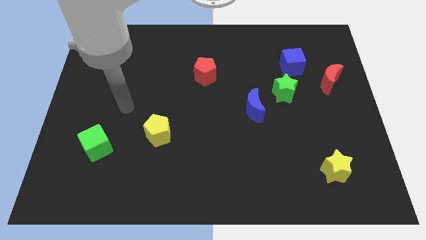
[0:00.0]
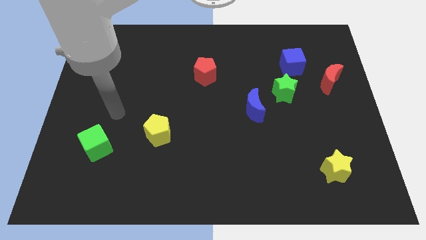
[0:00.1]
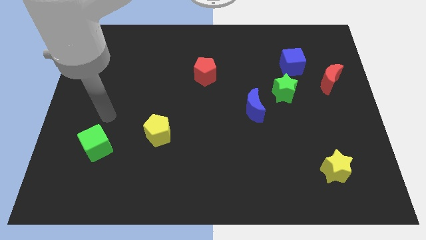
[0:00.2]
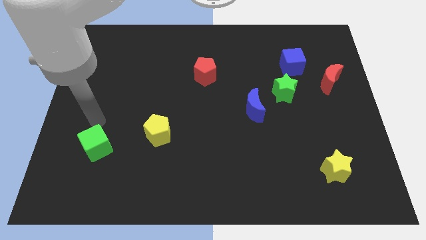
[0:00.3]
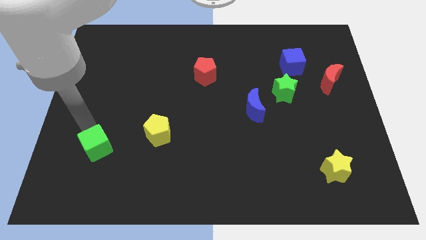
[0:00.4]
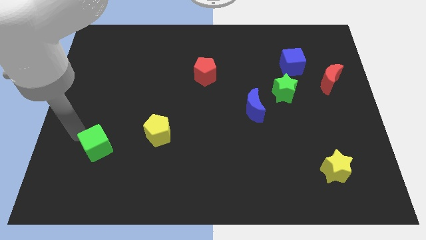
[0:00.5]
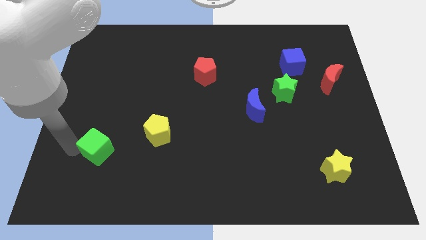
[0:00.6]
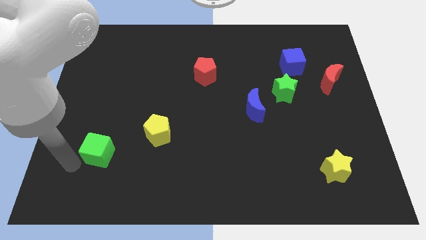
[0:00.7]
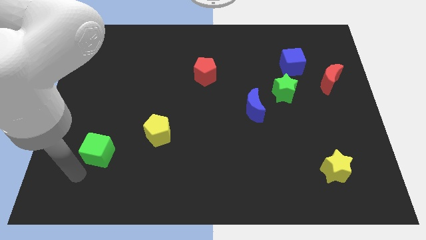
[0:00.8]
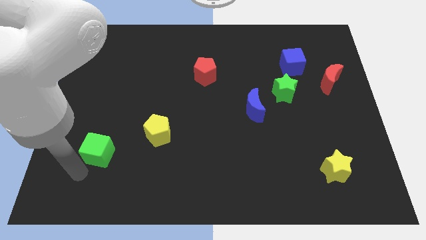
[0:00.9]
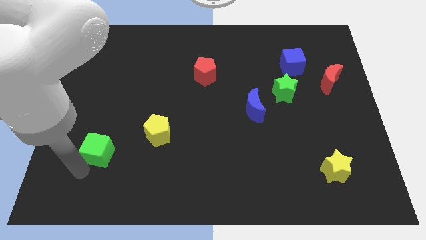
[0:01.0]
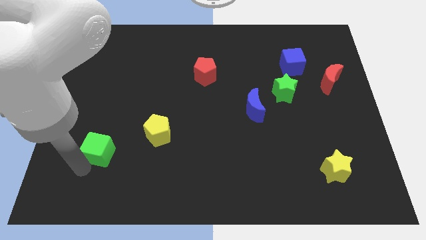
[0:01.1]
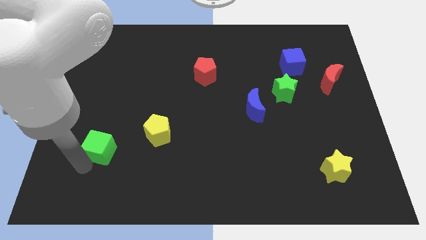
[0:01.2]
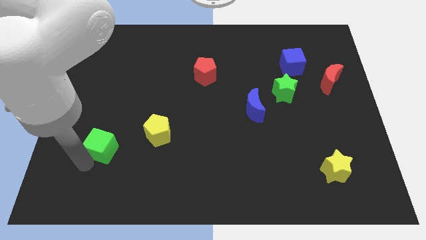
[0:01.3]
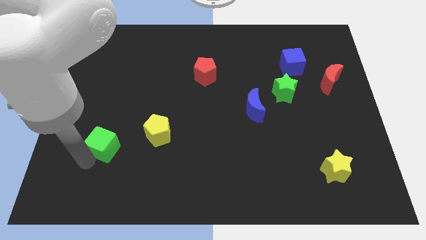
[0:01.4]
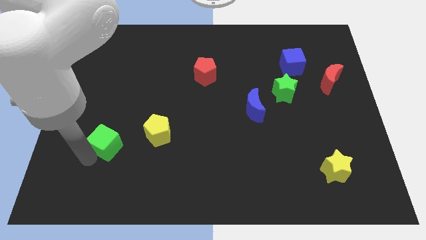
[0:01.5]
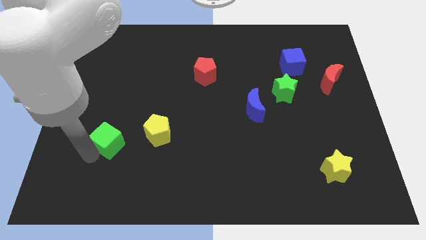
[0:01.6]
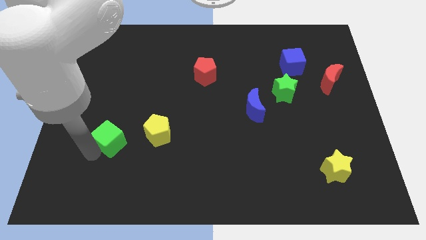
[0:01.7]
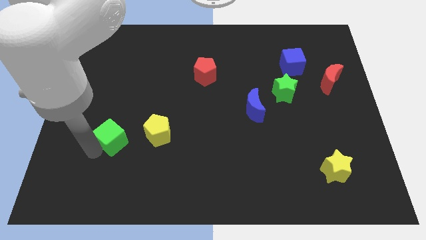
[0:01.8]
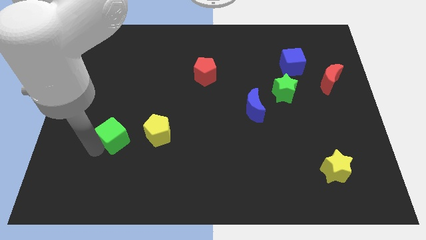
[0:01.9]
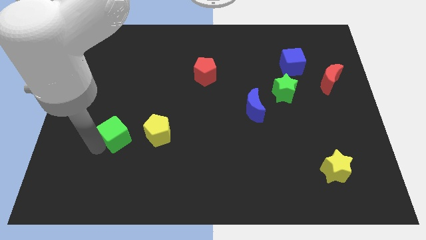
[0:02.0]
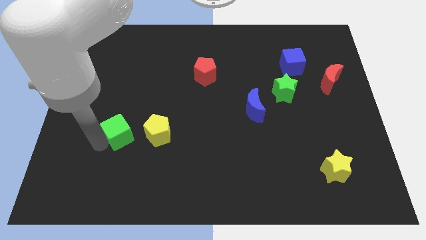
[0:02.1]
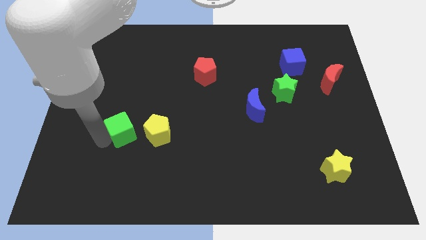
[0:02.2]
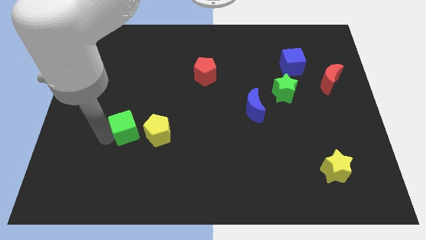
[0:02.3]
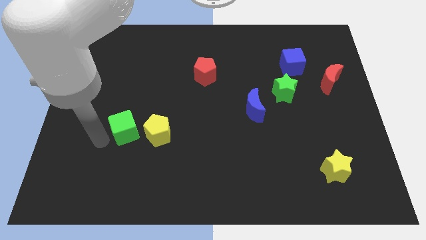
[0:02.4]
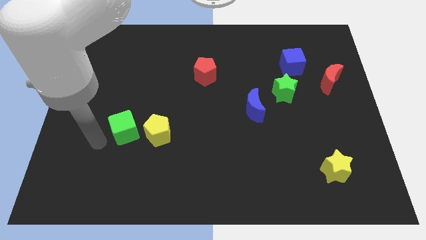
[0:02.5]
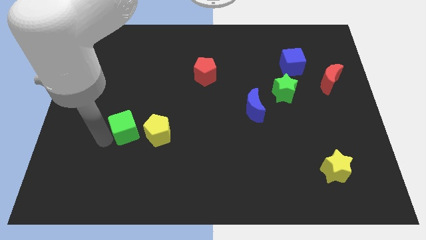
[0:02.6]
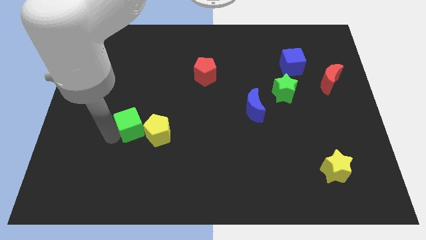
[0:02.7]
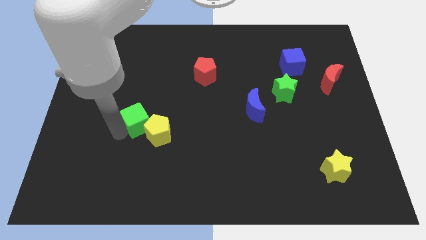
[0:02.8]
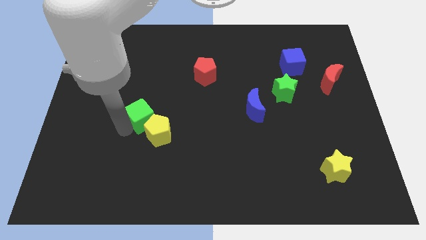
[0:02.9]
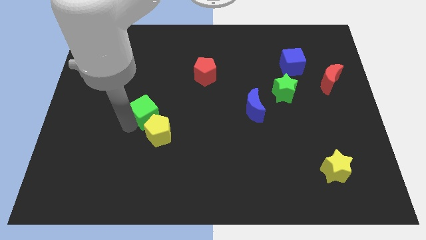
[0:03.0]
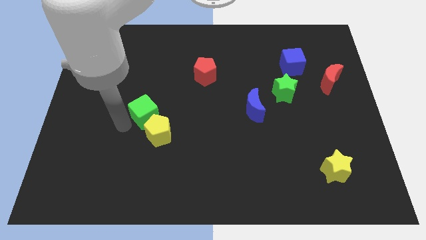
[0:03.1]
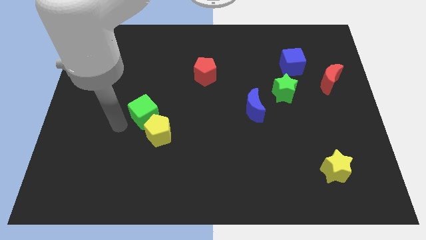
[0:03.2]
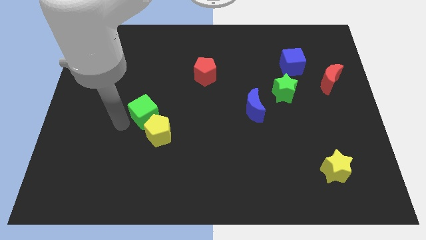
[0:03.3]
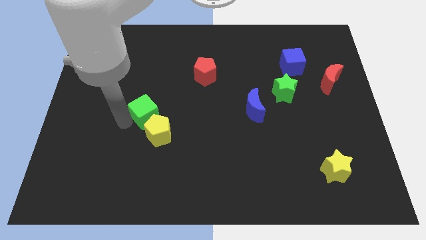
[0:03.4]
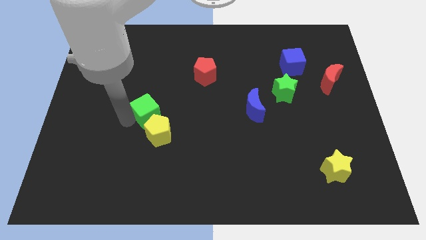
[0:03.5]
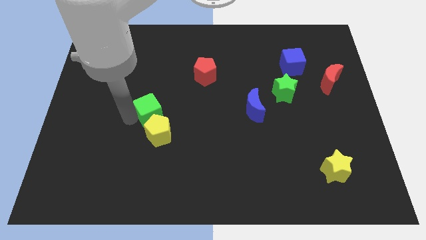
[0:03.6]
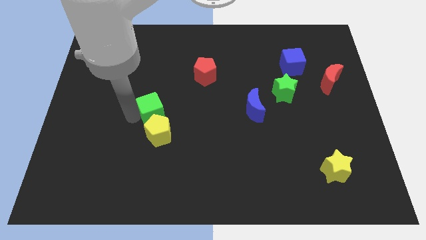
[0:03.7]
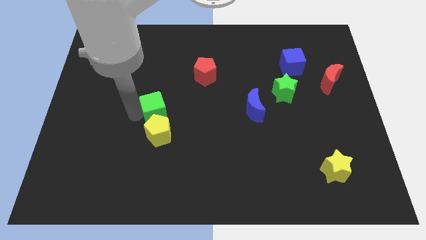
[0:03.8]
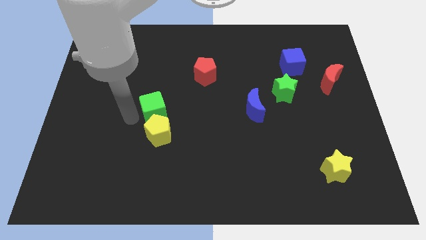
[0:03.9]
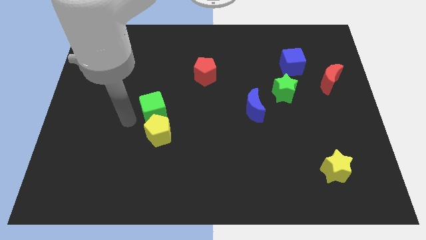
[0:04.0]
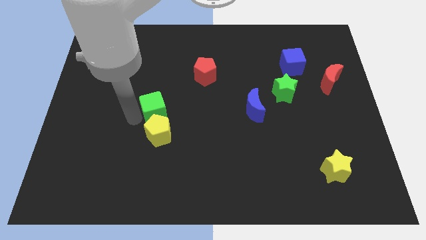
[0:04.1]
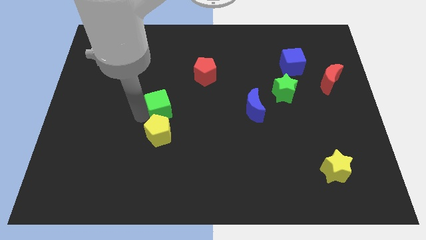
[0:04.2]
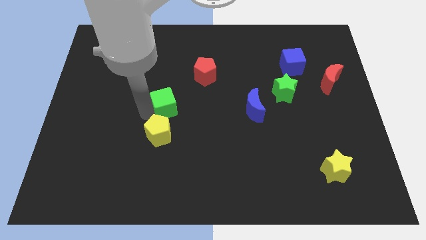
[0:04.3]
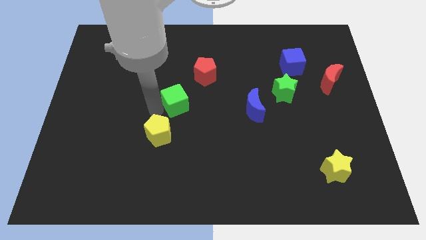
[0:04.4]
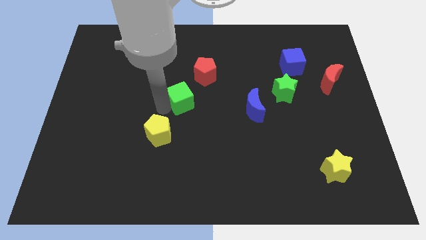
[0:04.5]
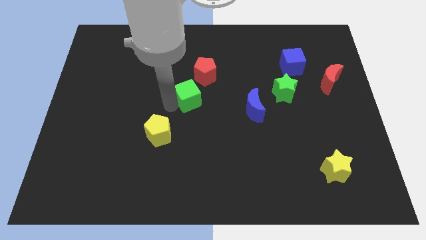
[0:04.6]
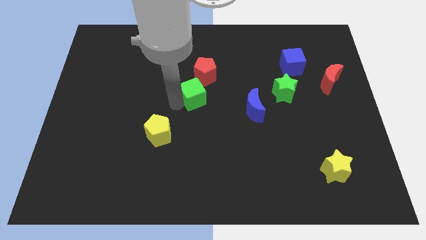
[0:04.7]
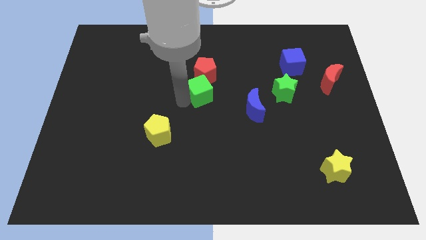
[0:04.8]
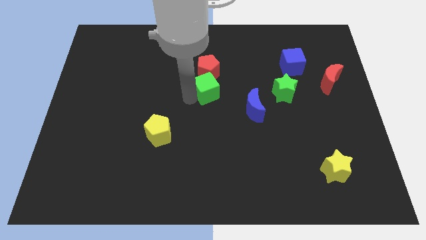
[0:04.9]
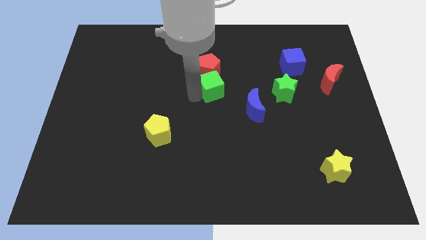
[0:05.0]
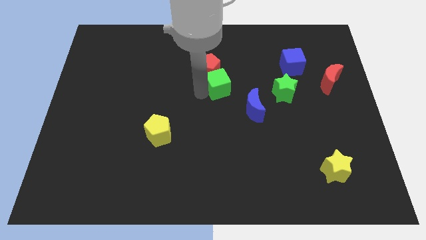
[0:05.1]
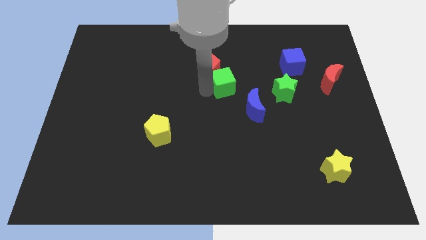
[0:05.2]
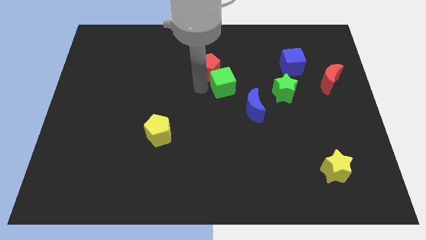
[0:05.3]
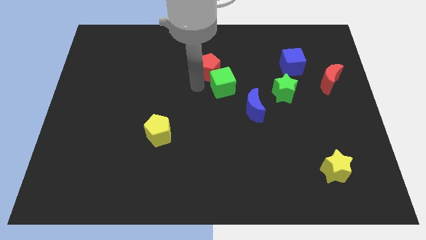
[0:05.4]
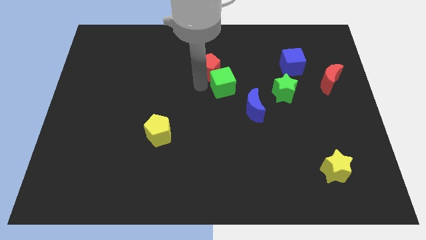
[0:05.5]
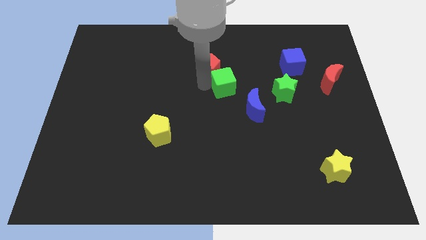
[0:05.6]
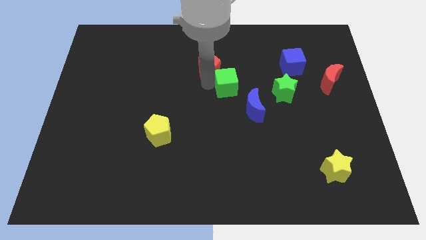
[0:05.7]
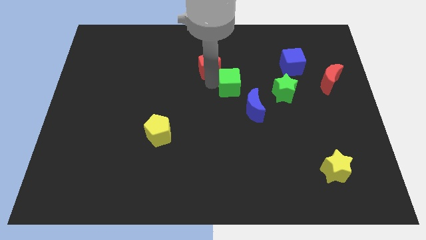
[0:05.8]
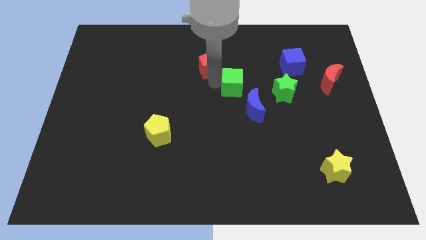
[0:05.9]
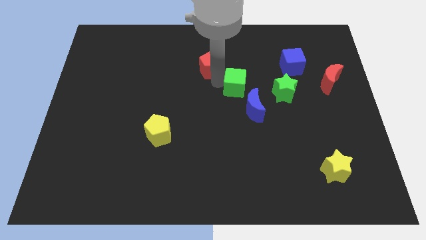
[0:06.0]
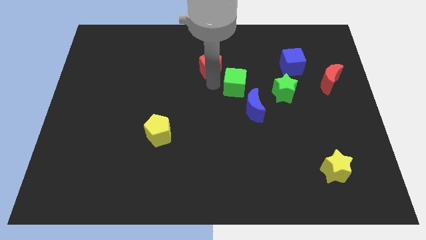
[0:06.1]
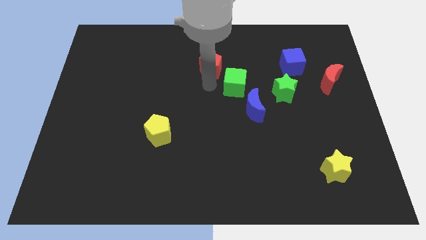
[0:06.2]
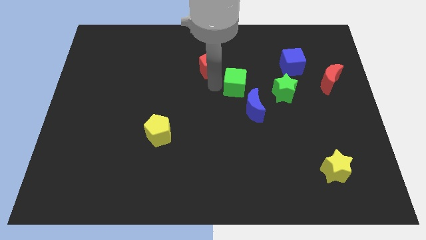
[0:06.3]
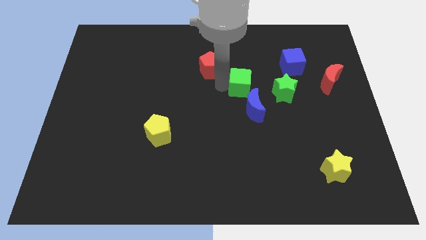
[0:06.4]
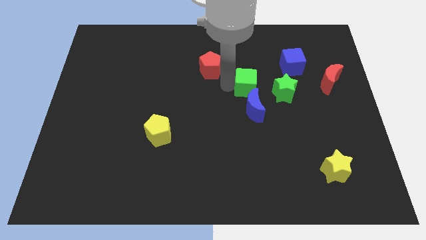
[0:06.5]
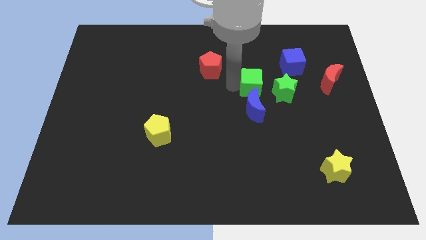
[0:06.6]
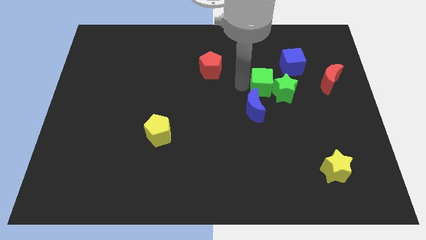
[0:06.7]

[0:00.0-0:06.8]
slide the green cube next to the green star
